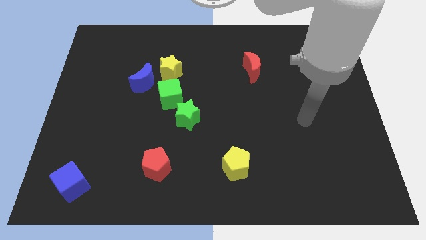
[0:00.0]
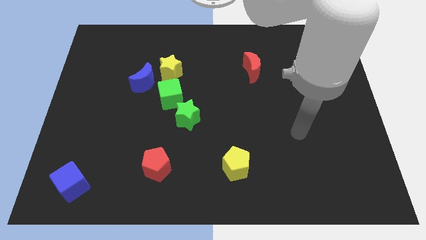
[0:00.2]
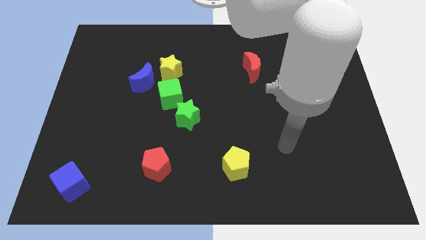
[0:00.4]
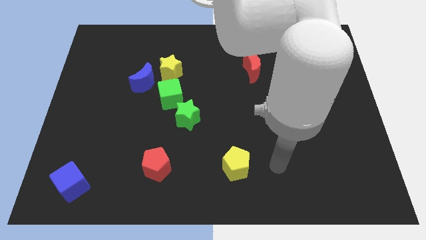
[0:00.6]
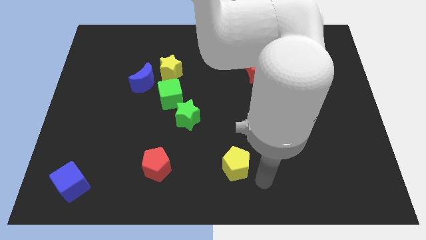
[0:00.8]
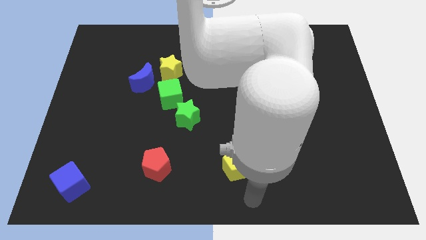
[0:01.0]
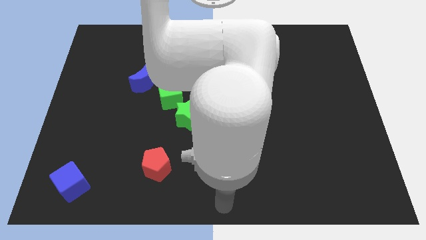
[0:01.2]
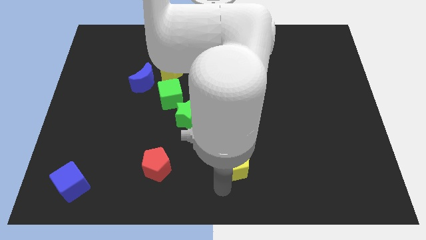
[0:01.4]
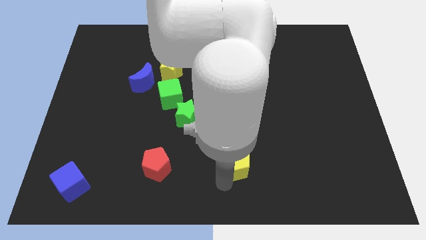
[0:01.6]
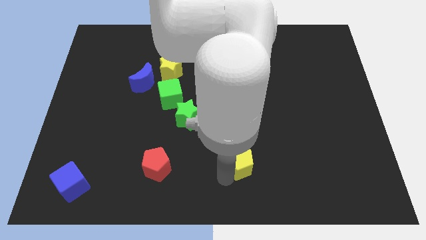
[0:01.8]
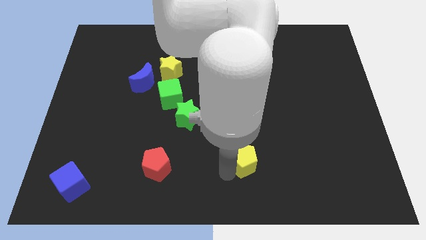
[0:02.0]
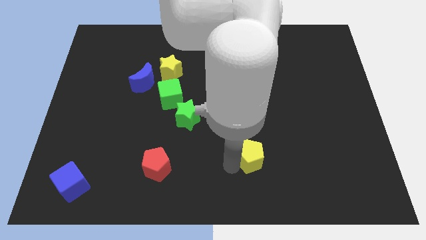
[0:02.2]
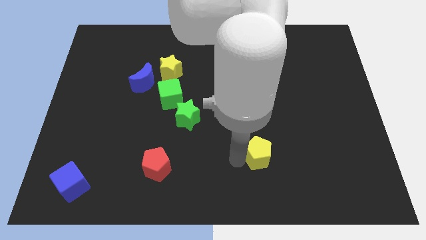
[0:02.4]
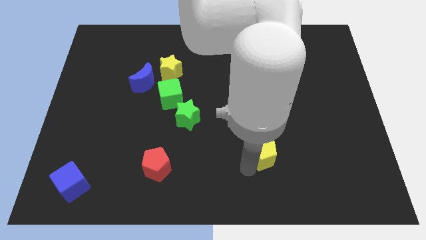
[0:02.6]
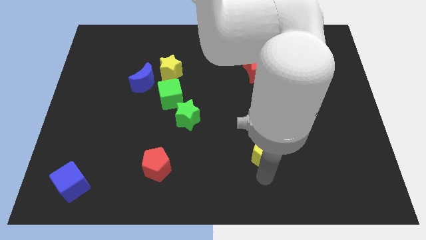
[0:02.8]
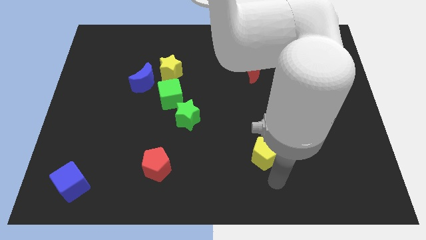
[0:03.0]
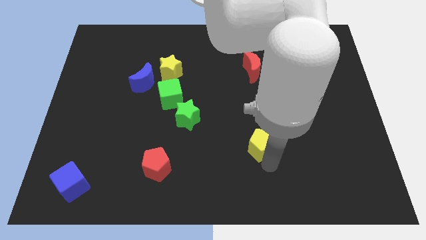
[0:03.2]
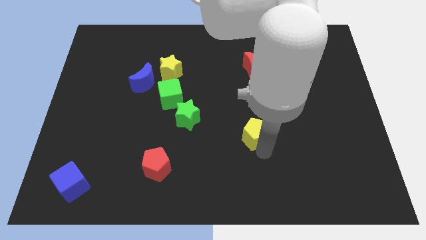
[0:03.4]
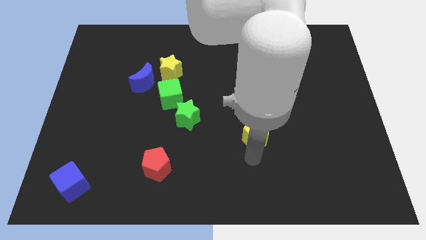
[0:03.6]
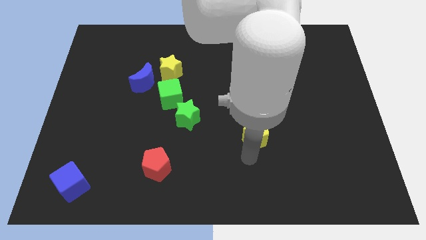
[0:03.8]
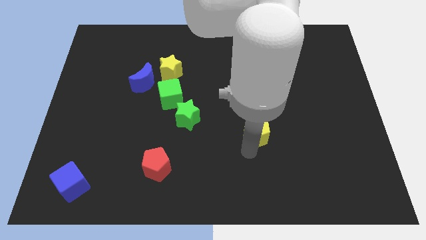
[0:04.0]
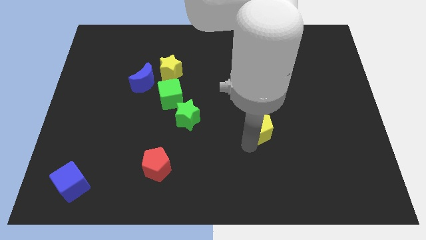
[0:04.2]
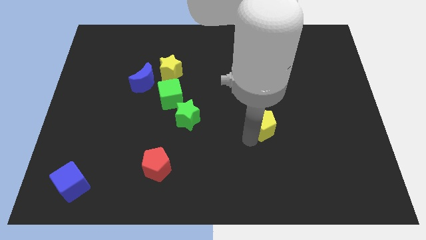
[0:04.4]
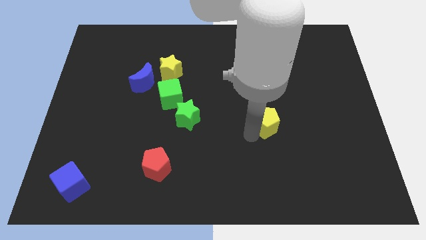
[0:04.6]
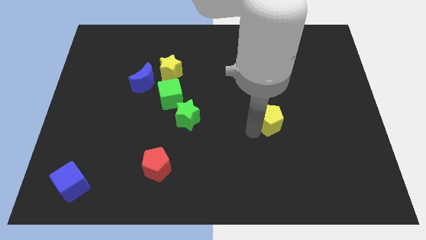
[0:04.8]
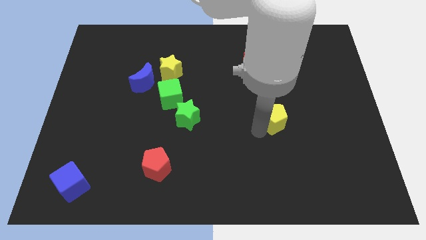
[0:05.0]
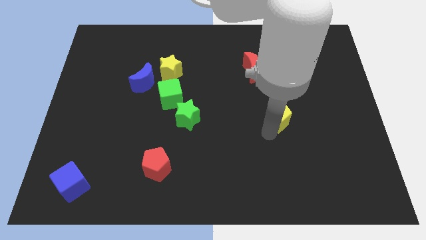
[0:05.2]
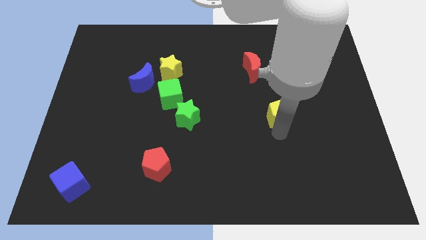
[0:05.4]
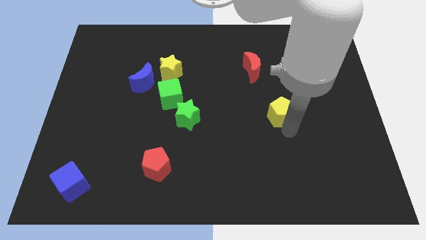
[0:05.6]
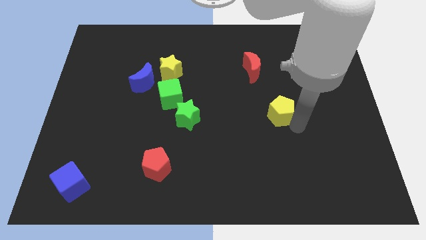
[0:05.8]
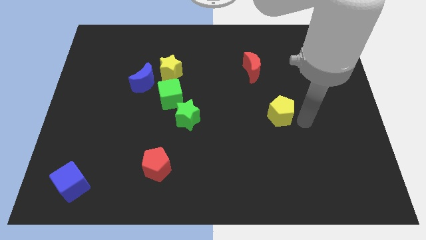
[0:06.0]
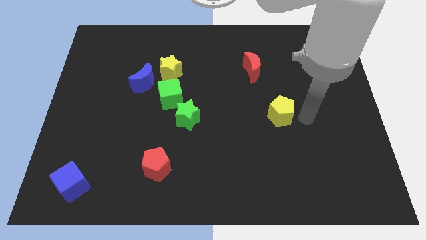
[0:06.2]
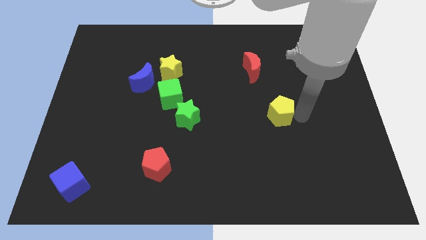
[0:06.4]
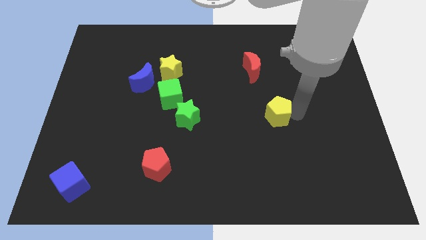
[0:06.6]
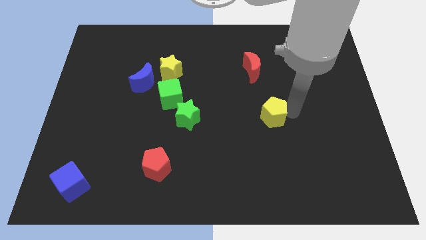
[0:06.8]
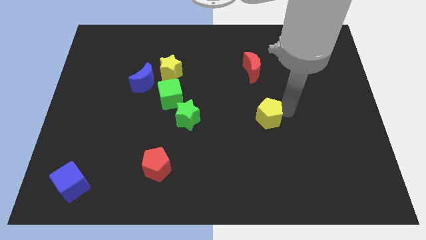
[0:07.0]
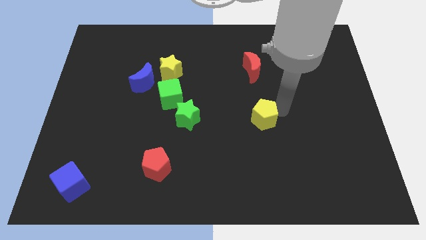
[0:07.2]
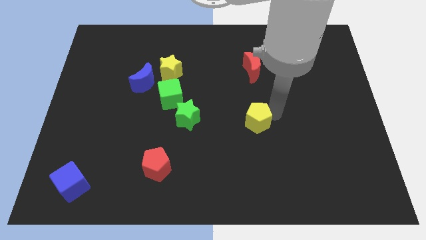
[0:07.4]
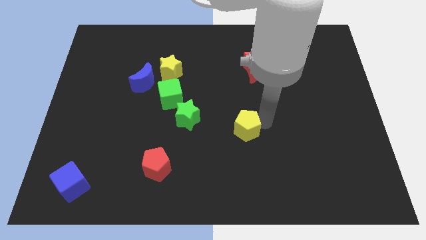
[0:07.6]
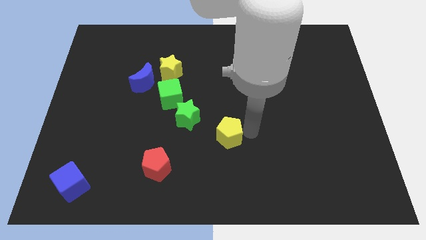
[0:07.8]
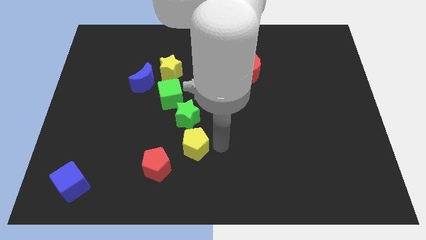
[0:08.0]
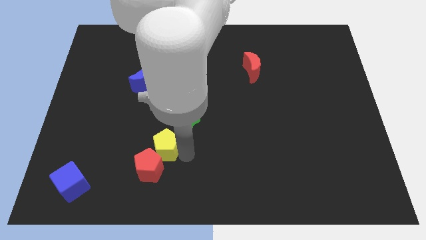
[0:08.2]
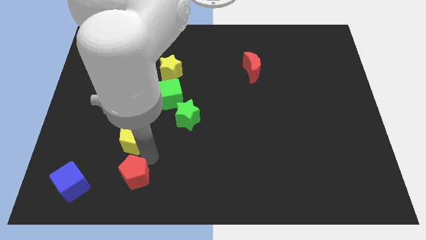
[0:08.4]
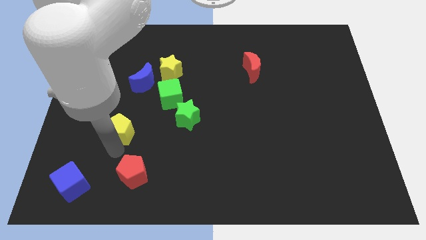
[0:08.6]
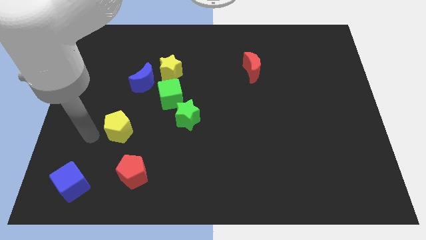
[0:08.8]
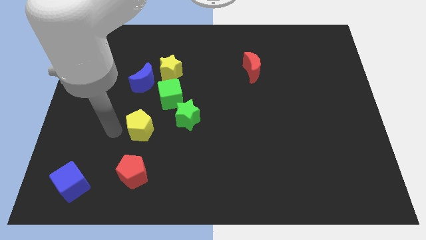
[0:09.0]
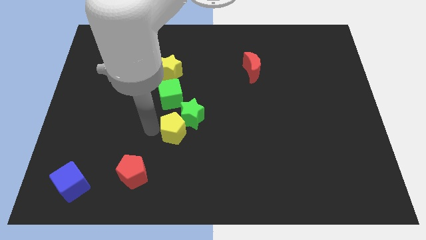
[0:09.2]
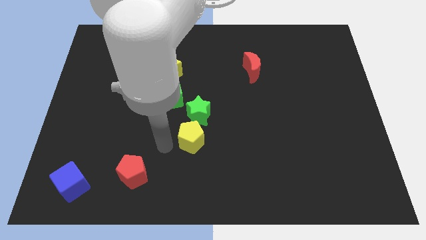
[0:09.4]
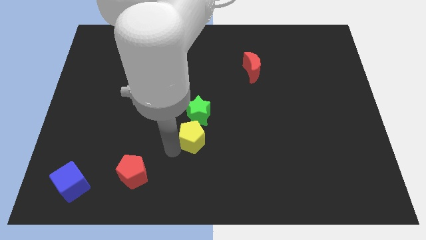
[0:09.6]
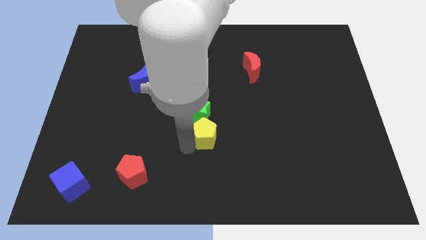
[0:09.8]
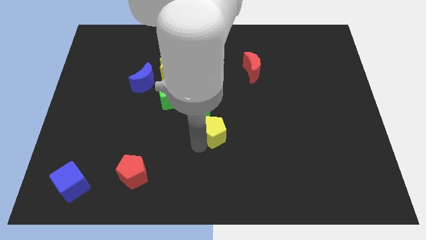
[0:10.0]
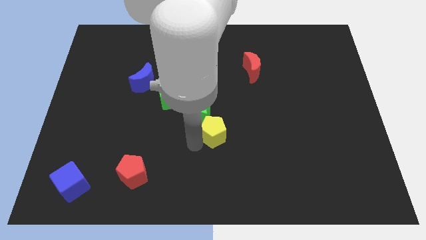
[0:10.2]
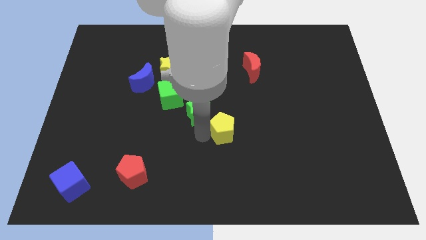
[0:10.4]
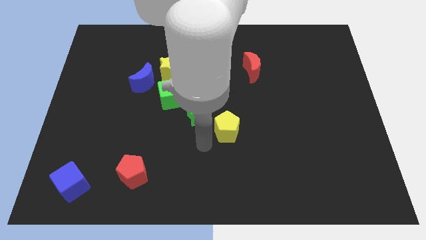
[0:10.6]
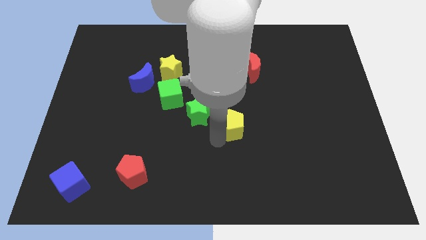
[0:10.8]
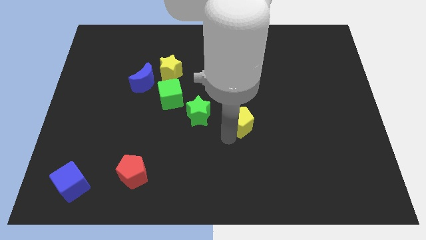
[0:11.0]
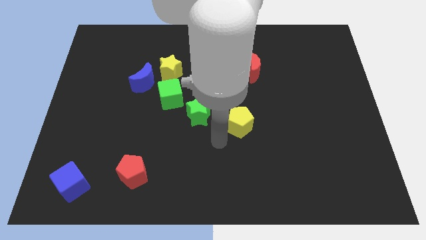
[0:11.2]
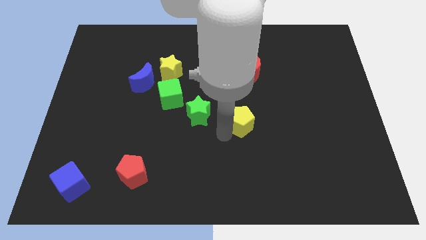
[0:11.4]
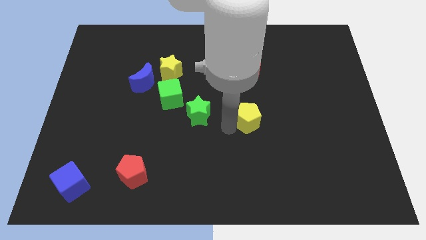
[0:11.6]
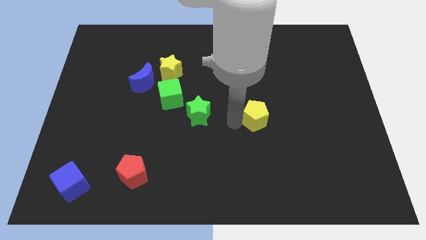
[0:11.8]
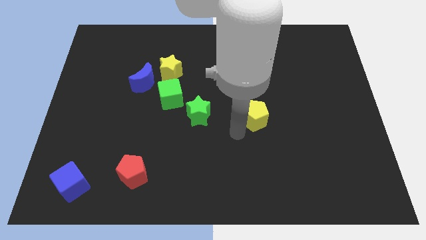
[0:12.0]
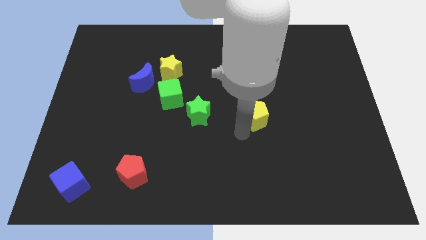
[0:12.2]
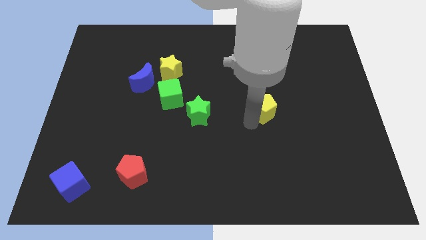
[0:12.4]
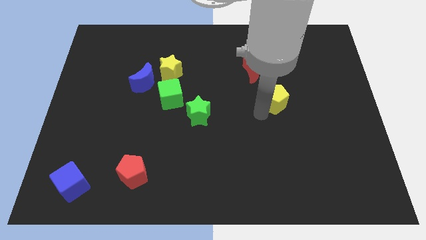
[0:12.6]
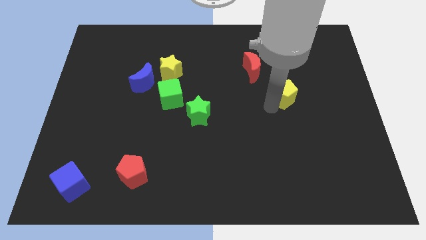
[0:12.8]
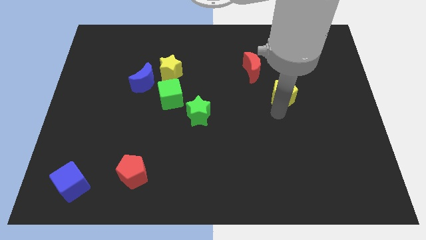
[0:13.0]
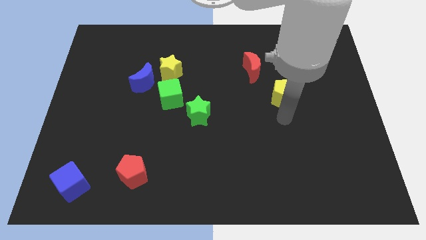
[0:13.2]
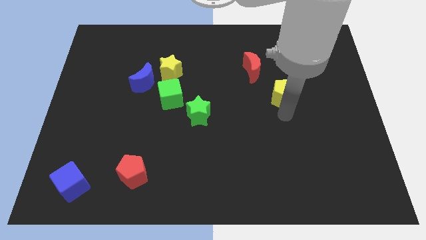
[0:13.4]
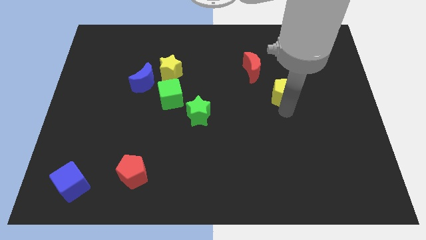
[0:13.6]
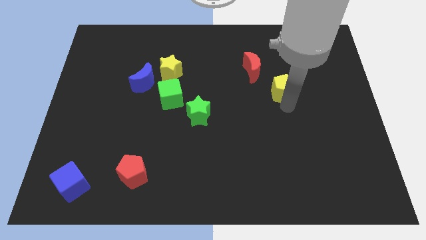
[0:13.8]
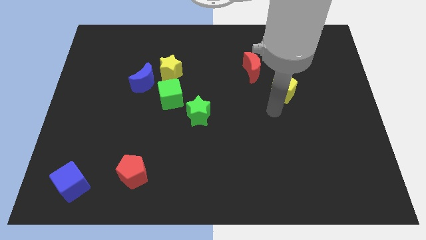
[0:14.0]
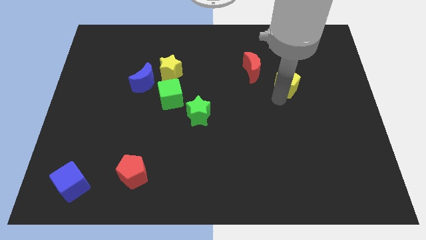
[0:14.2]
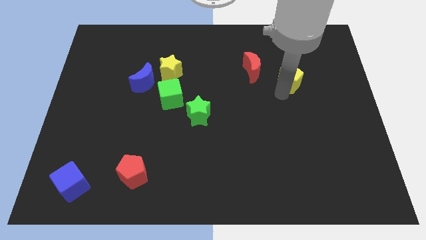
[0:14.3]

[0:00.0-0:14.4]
push the yellow pentagon just right of the red moon
